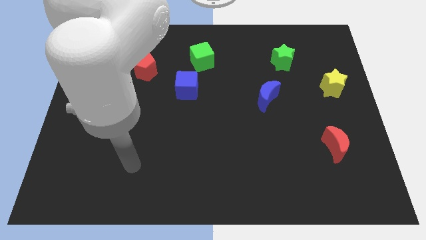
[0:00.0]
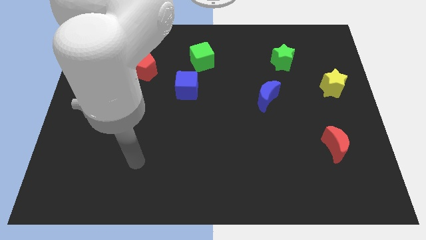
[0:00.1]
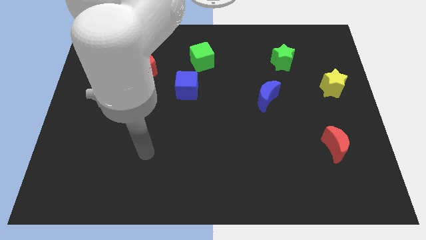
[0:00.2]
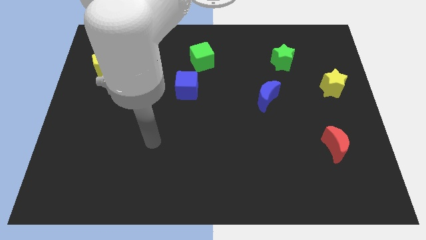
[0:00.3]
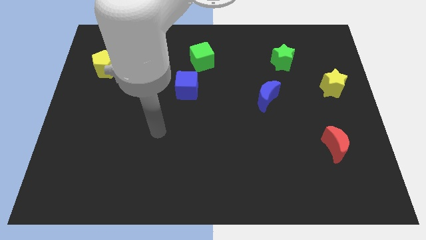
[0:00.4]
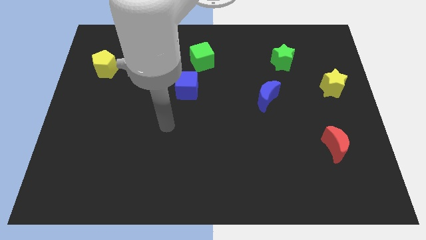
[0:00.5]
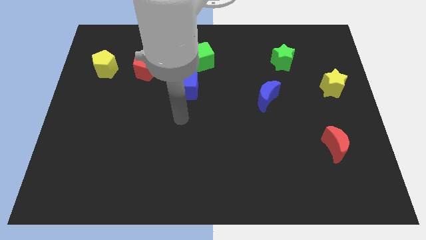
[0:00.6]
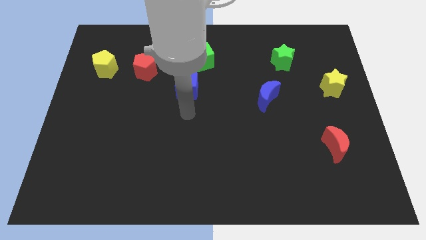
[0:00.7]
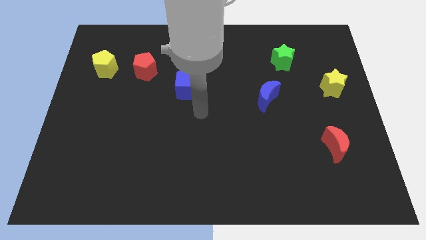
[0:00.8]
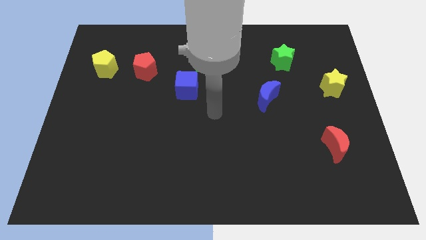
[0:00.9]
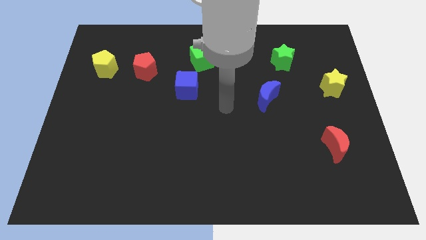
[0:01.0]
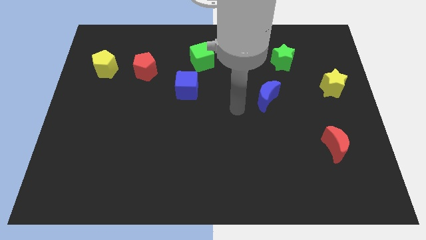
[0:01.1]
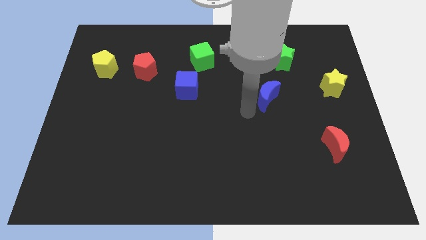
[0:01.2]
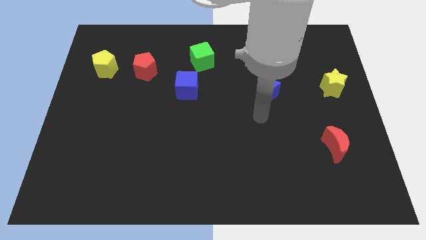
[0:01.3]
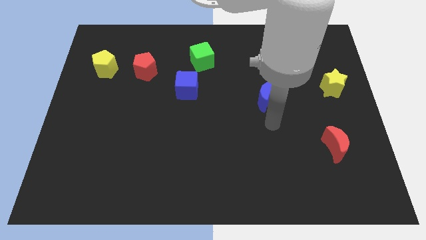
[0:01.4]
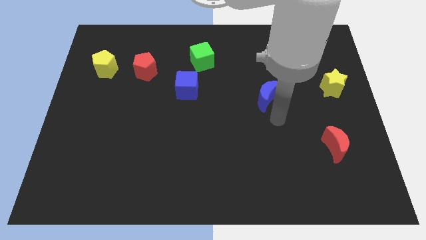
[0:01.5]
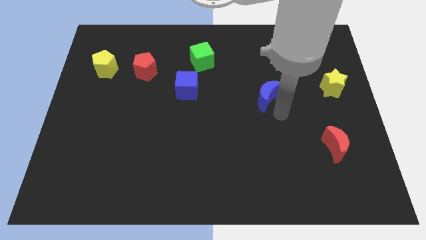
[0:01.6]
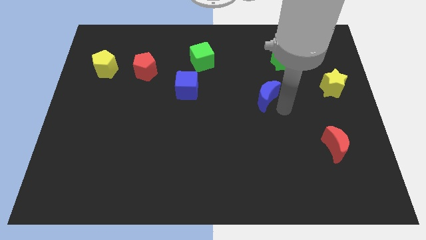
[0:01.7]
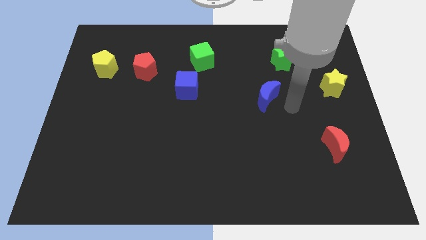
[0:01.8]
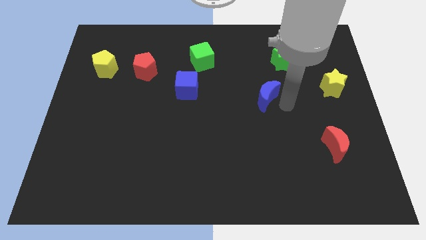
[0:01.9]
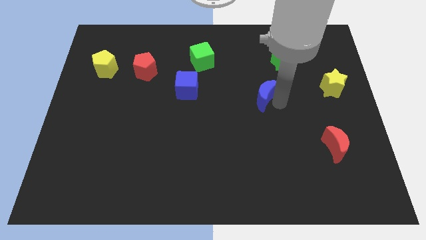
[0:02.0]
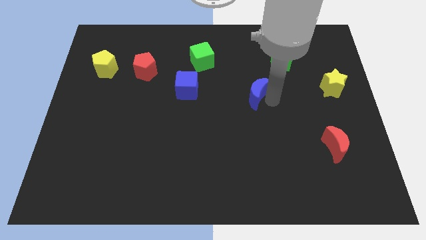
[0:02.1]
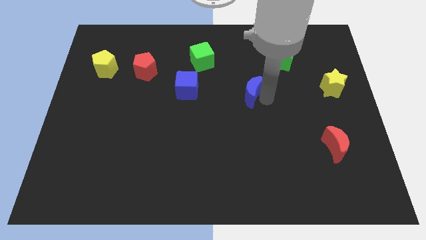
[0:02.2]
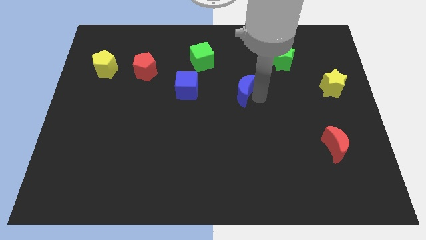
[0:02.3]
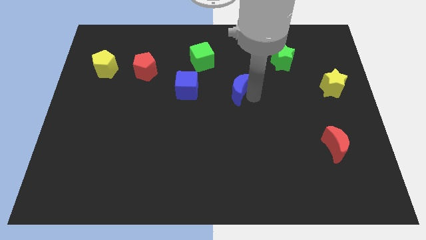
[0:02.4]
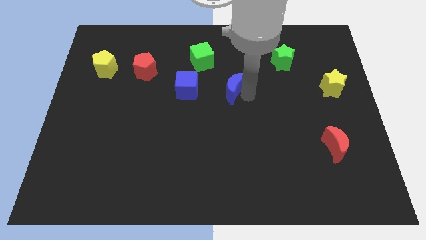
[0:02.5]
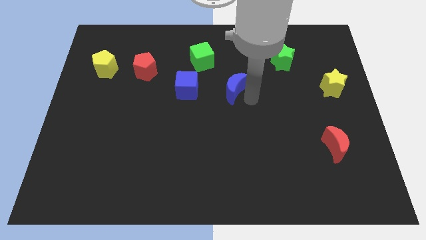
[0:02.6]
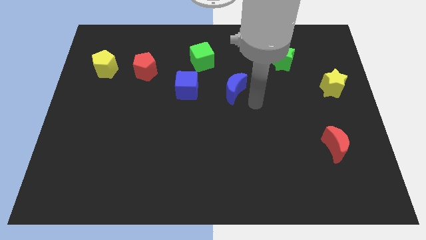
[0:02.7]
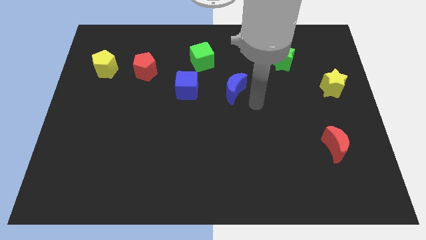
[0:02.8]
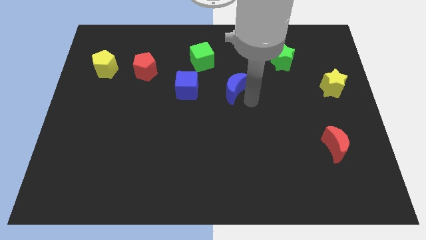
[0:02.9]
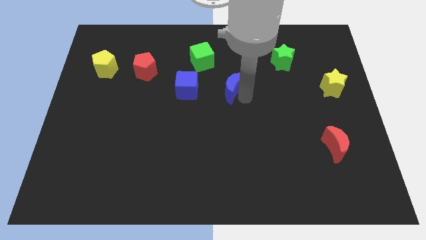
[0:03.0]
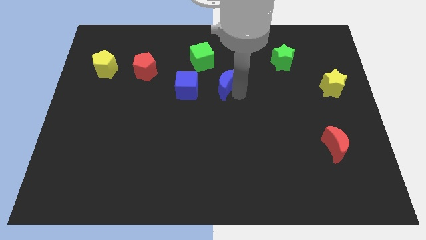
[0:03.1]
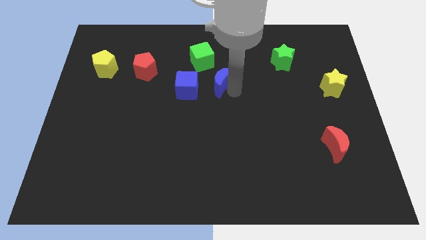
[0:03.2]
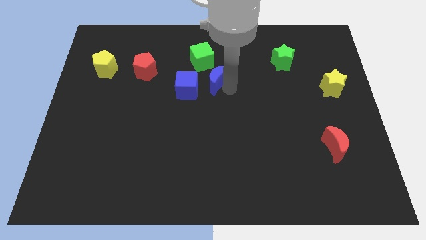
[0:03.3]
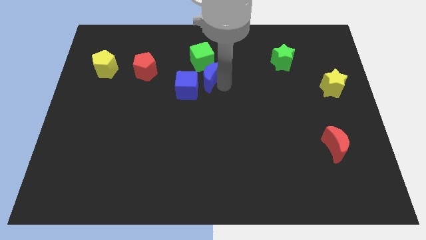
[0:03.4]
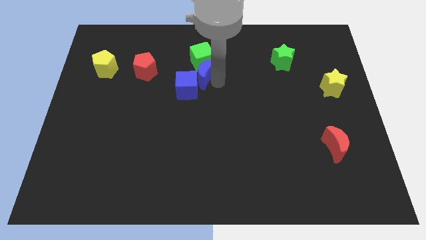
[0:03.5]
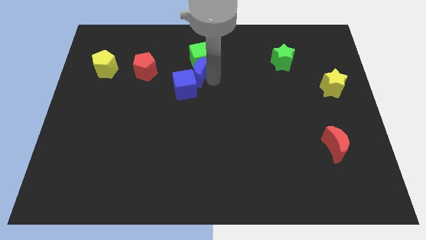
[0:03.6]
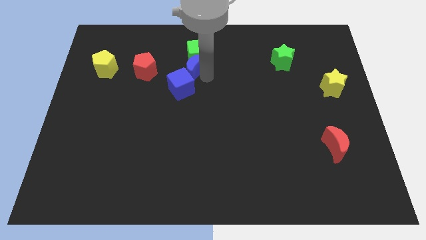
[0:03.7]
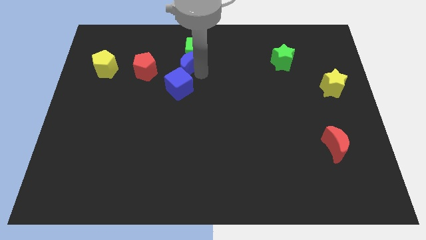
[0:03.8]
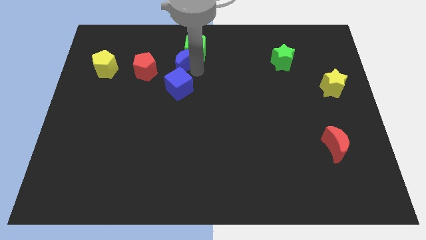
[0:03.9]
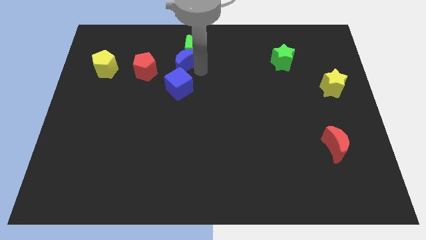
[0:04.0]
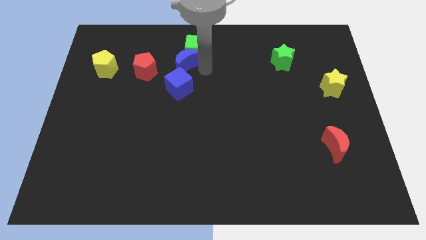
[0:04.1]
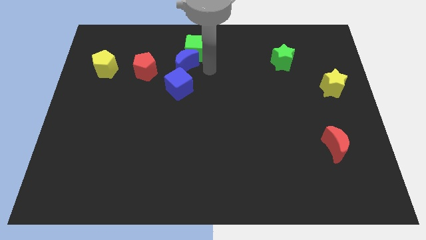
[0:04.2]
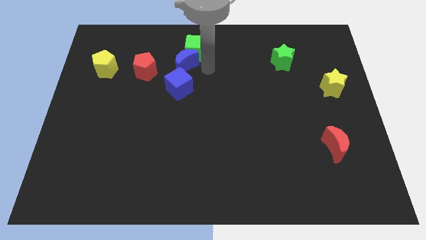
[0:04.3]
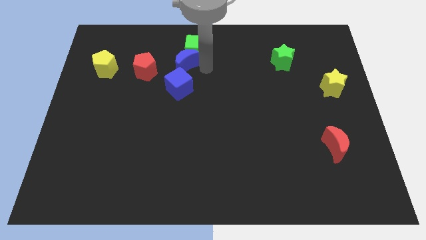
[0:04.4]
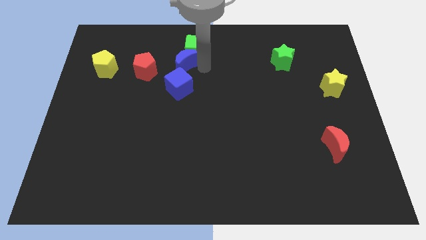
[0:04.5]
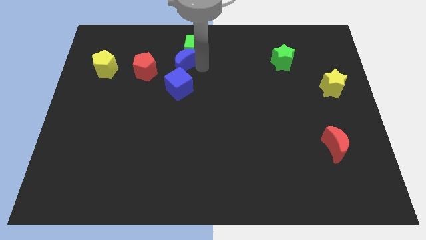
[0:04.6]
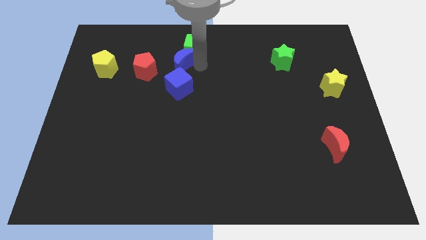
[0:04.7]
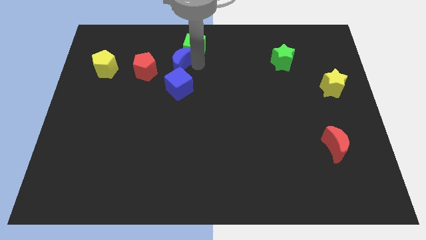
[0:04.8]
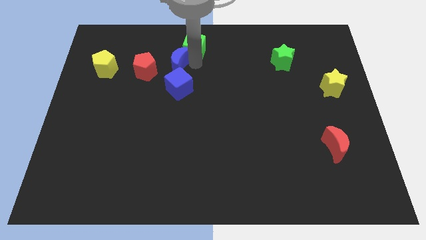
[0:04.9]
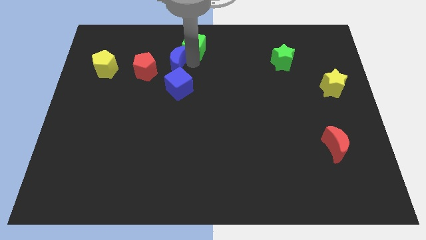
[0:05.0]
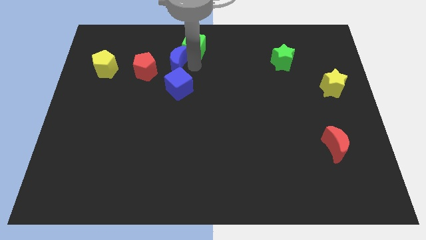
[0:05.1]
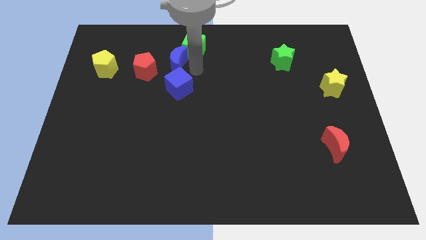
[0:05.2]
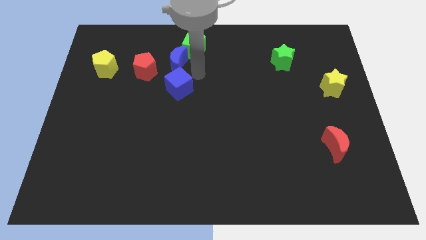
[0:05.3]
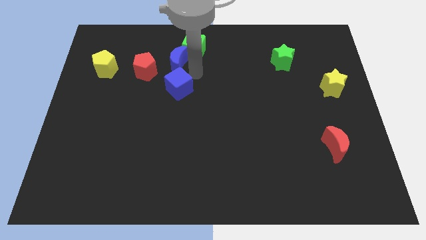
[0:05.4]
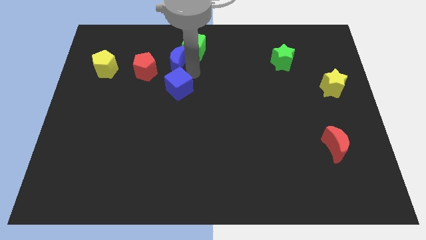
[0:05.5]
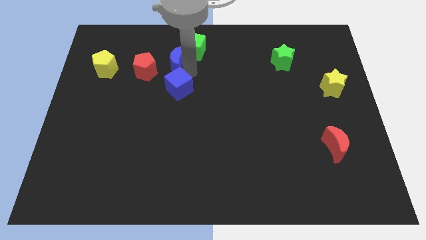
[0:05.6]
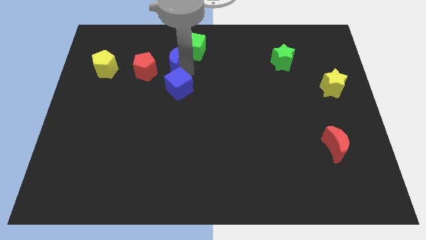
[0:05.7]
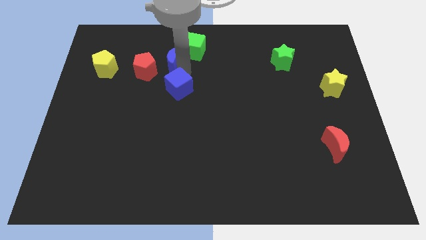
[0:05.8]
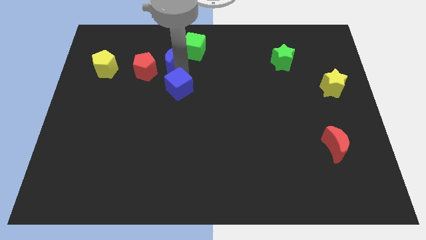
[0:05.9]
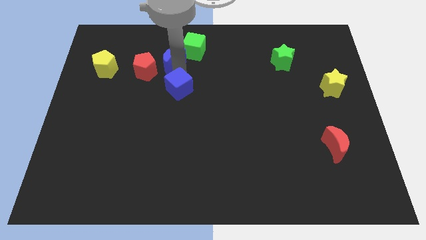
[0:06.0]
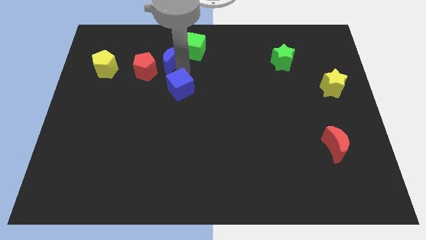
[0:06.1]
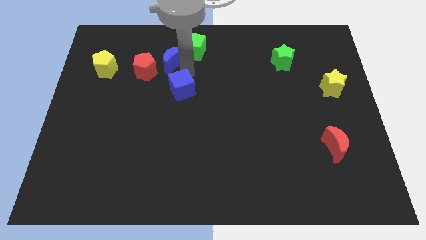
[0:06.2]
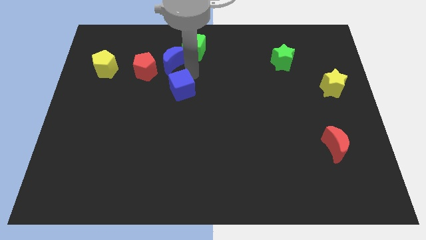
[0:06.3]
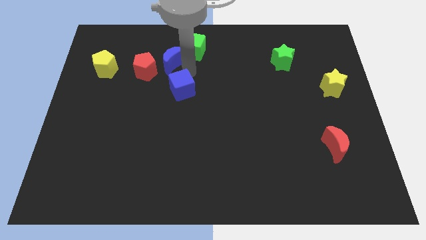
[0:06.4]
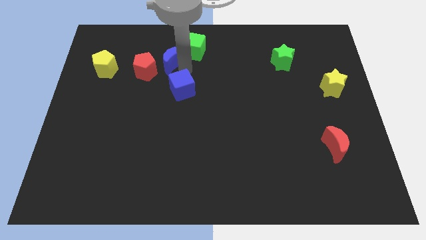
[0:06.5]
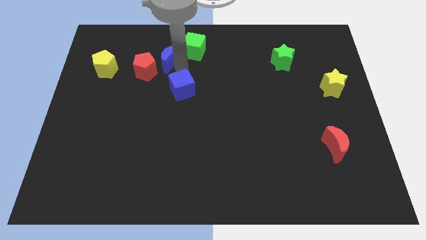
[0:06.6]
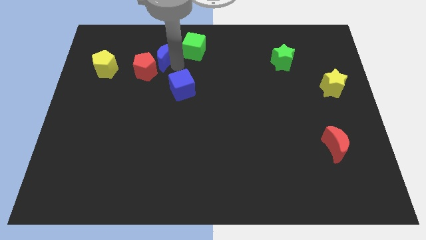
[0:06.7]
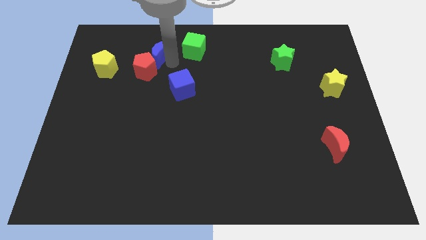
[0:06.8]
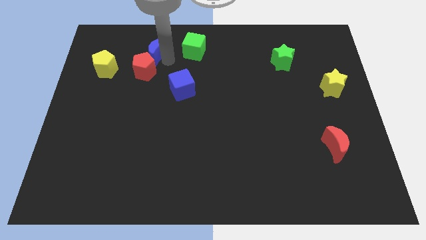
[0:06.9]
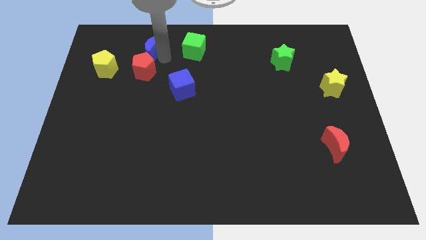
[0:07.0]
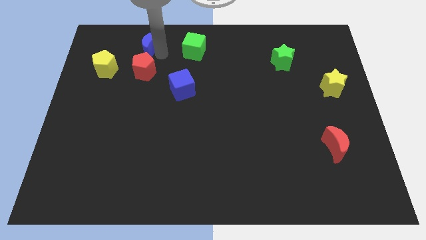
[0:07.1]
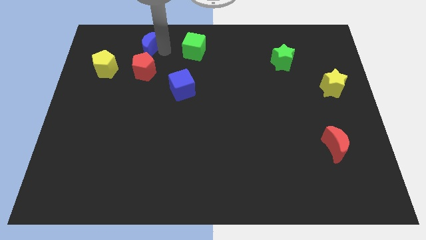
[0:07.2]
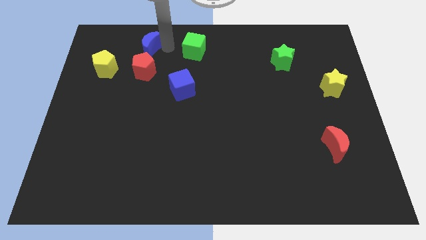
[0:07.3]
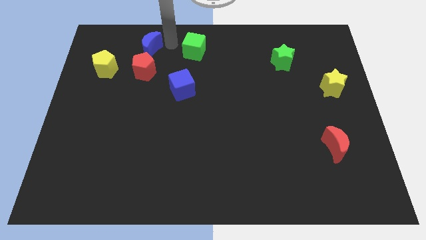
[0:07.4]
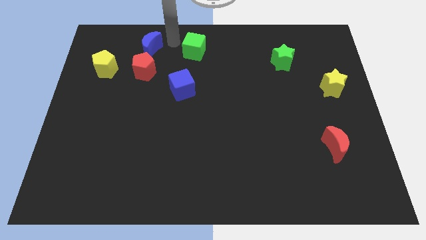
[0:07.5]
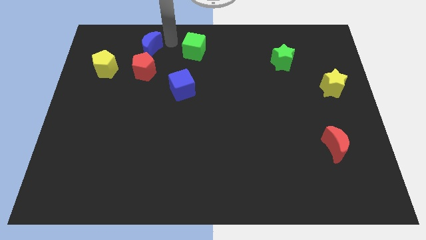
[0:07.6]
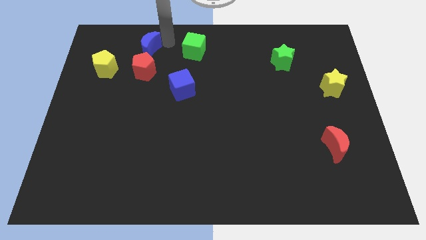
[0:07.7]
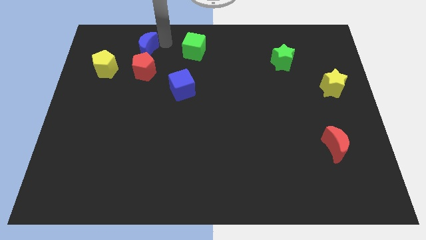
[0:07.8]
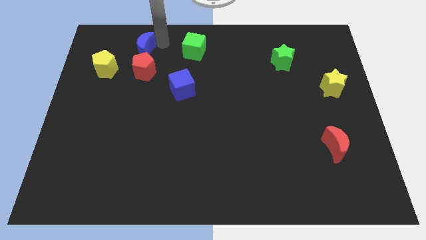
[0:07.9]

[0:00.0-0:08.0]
push the blue moon diagonally up and to the left of the red pentagon
